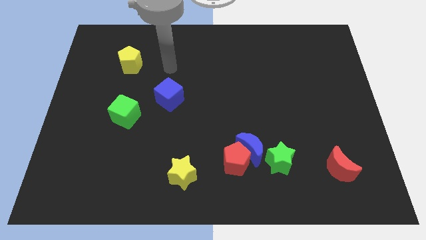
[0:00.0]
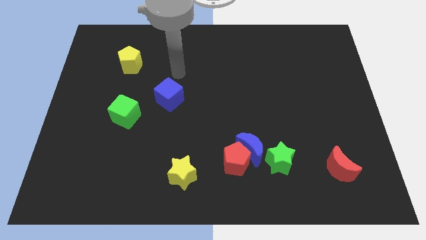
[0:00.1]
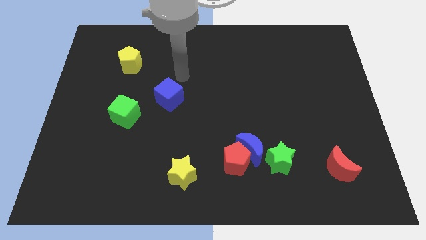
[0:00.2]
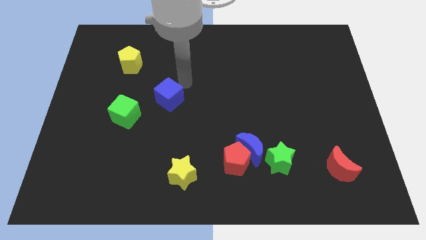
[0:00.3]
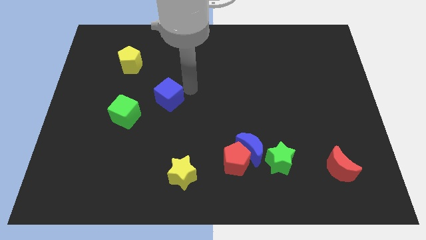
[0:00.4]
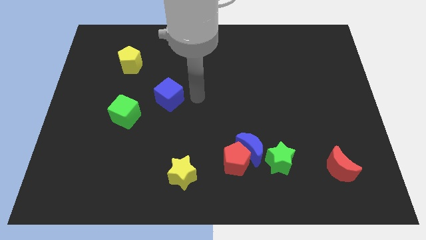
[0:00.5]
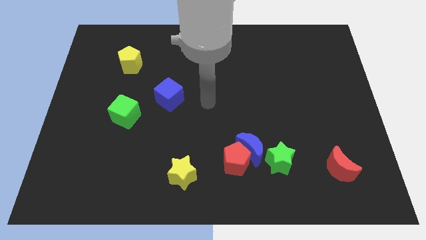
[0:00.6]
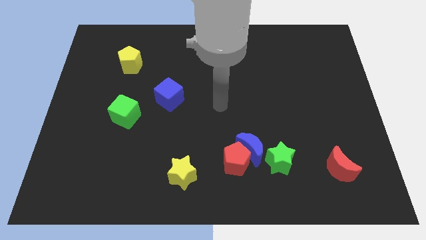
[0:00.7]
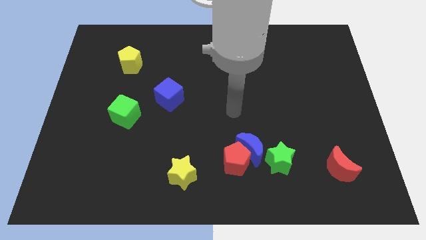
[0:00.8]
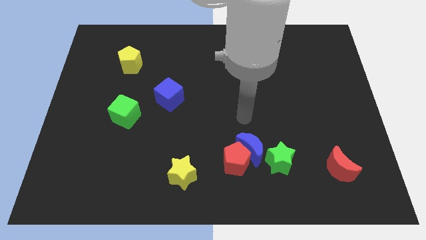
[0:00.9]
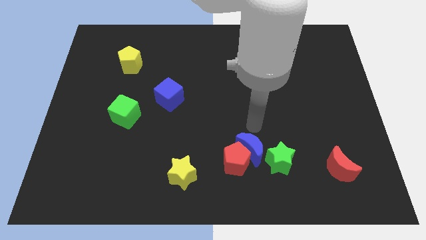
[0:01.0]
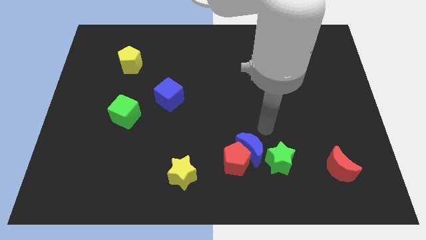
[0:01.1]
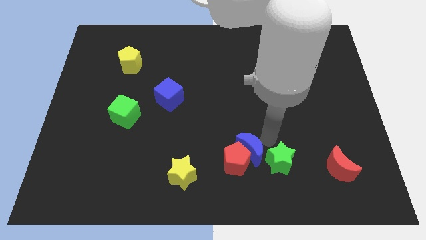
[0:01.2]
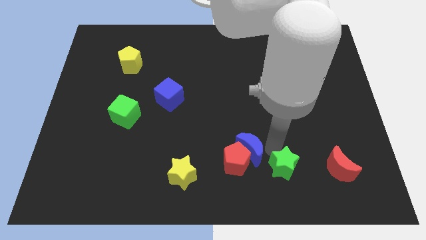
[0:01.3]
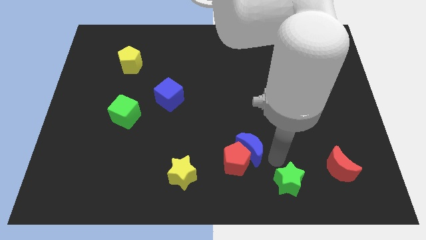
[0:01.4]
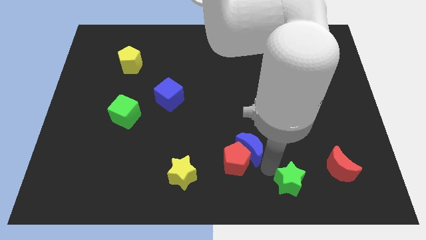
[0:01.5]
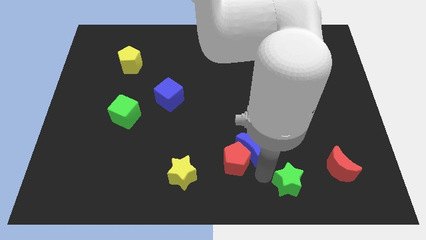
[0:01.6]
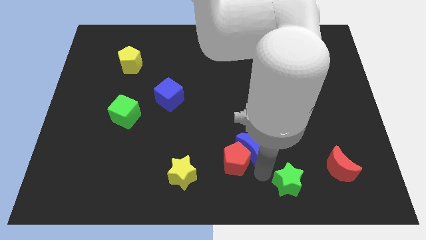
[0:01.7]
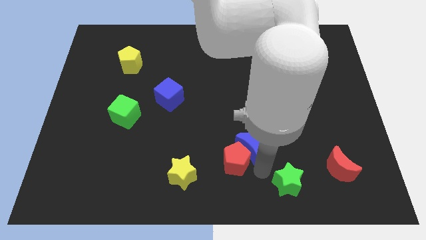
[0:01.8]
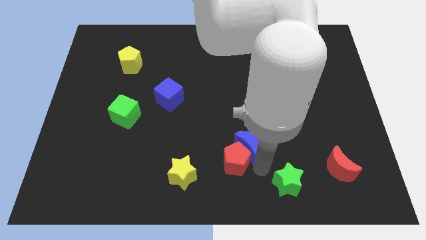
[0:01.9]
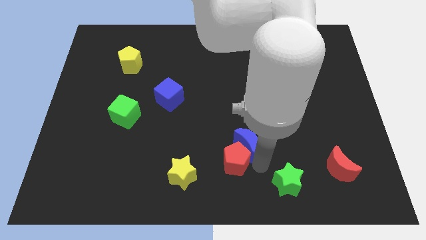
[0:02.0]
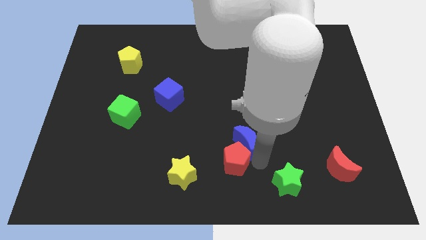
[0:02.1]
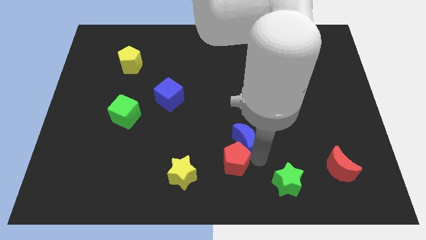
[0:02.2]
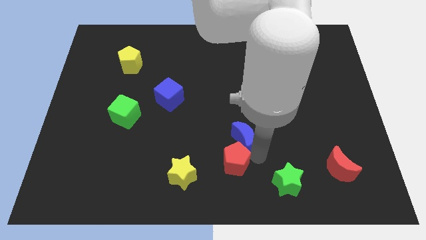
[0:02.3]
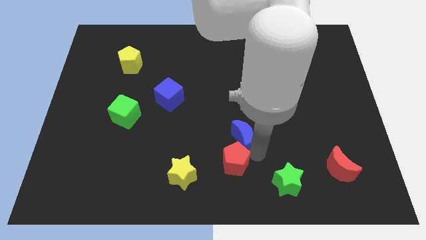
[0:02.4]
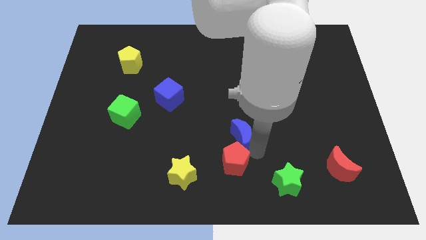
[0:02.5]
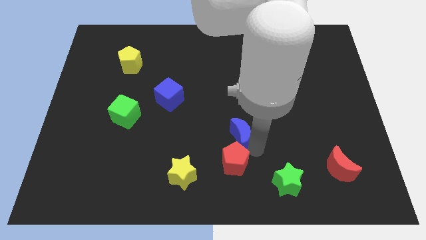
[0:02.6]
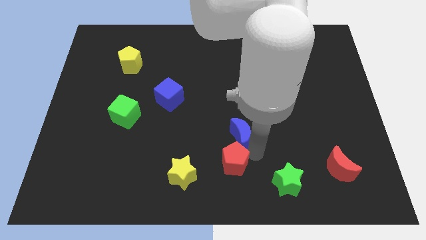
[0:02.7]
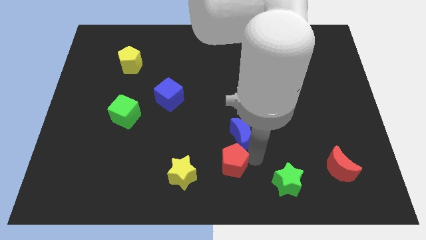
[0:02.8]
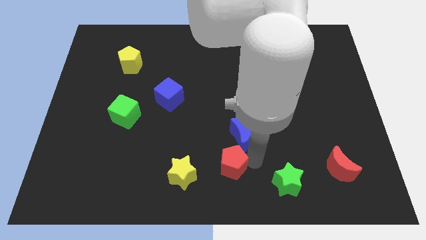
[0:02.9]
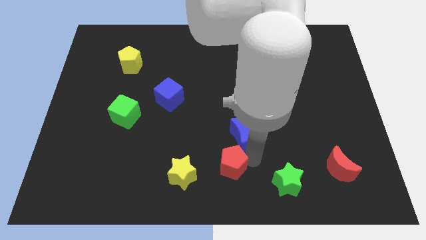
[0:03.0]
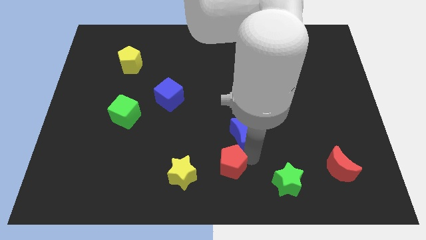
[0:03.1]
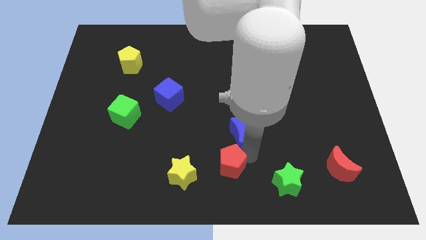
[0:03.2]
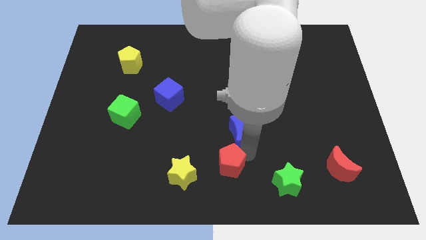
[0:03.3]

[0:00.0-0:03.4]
separate the blue moon from the red pentagon and green star

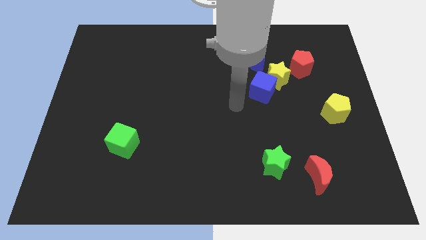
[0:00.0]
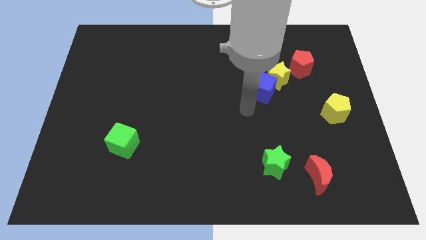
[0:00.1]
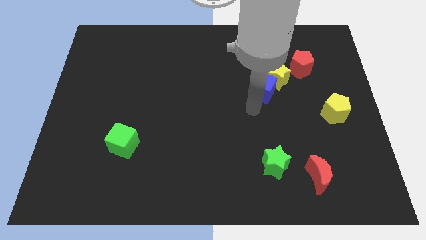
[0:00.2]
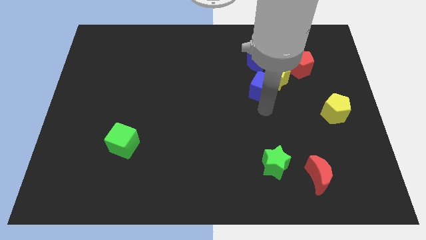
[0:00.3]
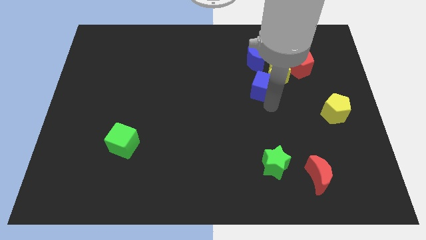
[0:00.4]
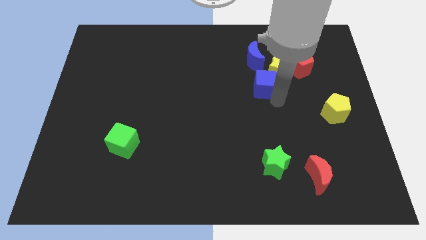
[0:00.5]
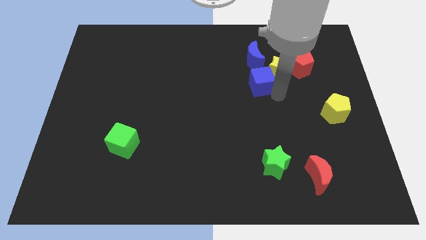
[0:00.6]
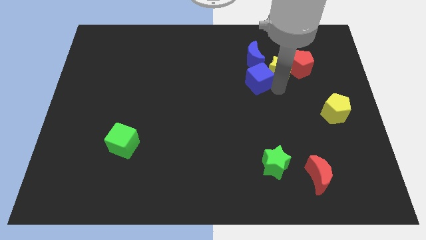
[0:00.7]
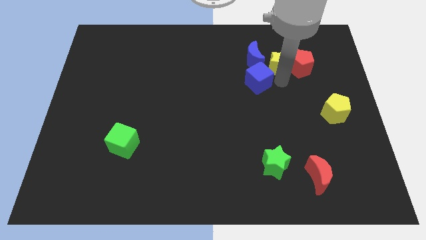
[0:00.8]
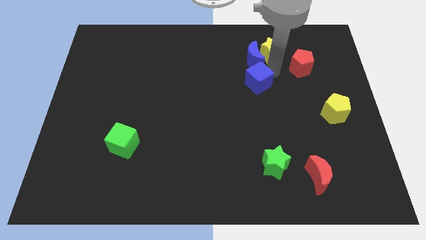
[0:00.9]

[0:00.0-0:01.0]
pull the blue cube apart from the yellow star

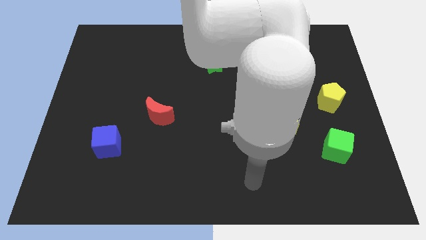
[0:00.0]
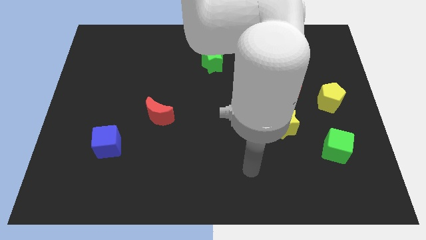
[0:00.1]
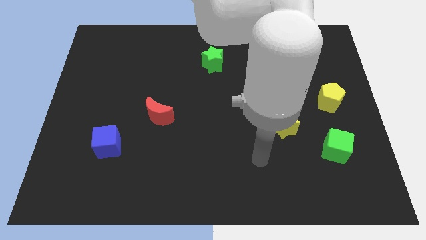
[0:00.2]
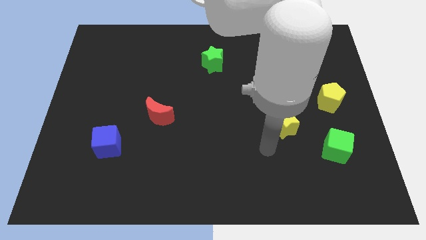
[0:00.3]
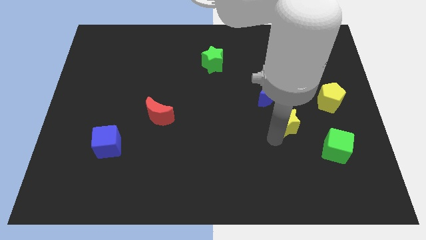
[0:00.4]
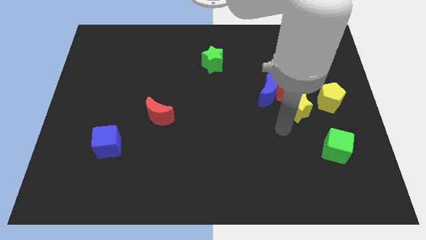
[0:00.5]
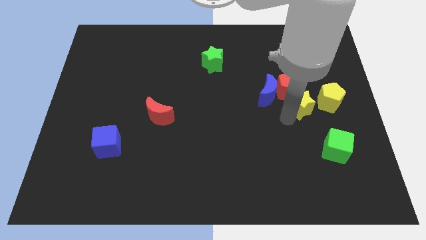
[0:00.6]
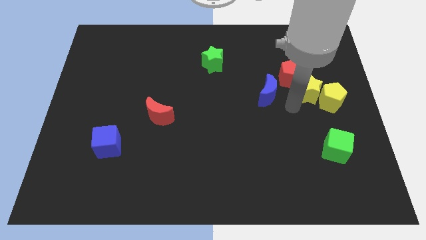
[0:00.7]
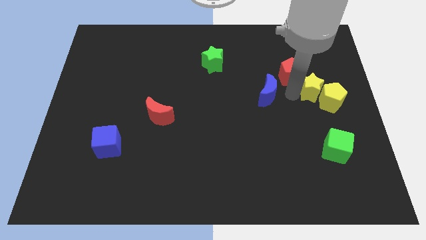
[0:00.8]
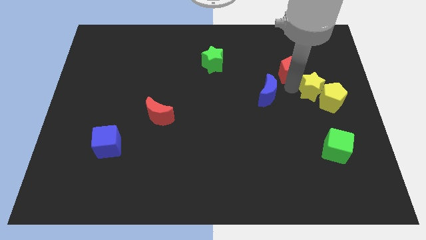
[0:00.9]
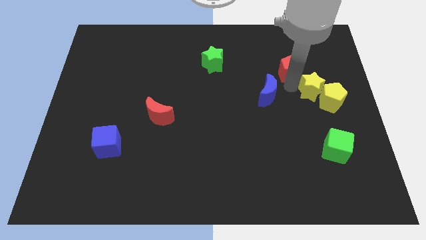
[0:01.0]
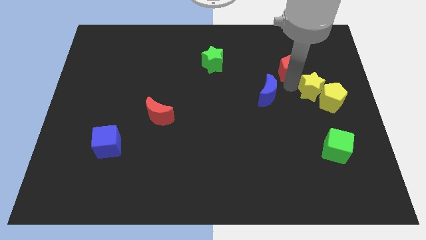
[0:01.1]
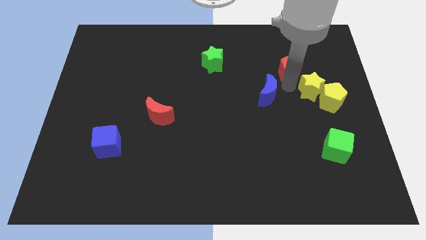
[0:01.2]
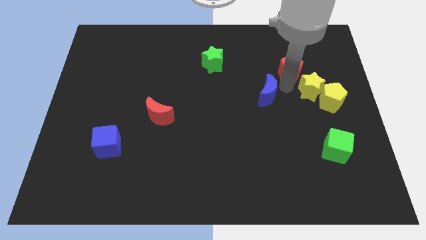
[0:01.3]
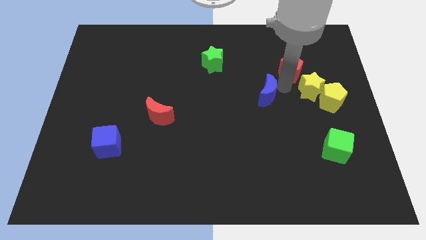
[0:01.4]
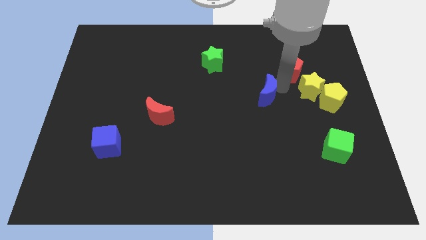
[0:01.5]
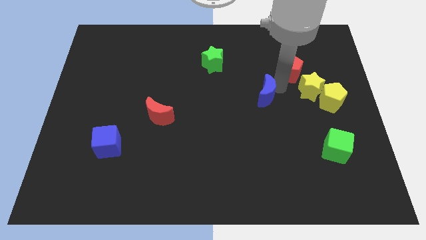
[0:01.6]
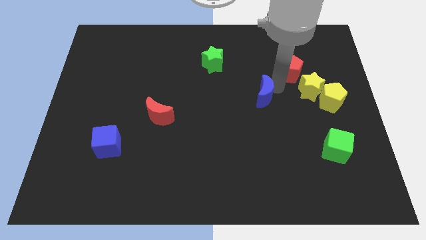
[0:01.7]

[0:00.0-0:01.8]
pull the blue moon apart from the red pentagon and yellow star

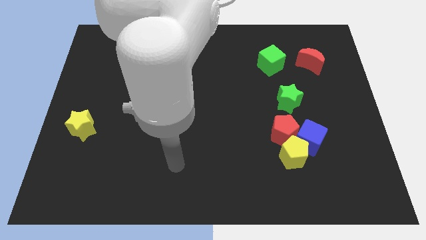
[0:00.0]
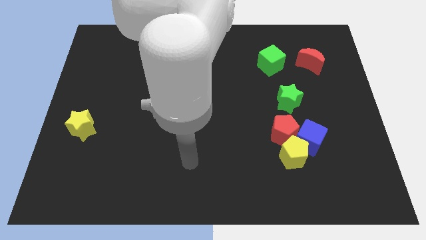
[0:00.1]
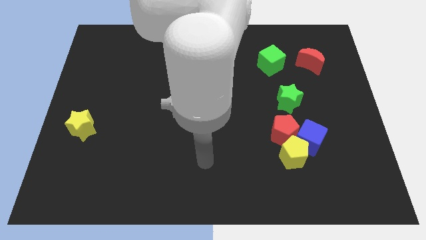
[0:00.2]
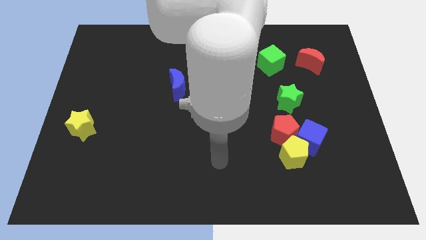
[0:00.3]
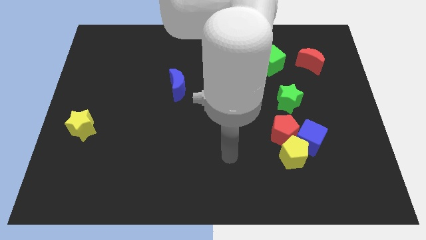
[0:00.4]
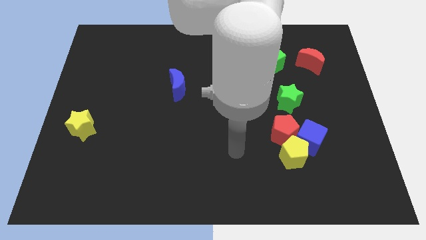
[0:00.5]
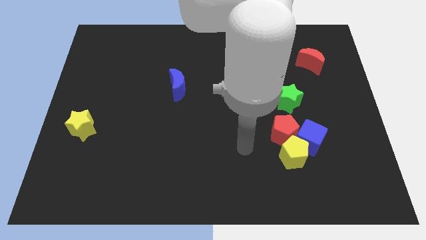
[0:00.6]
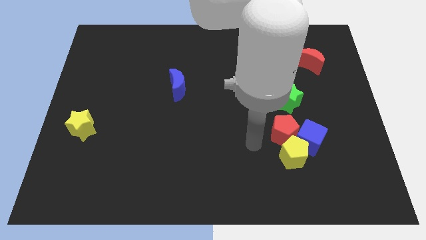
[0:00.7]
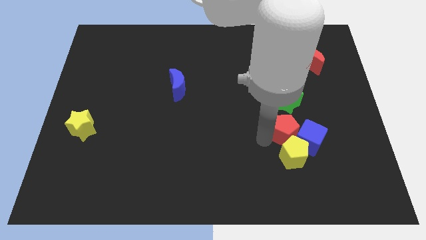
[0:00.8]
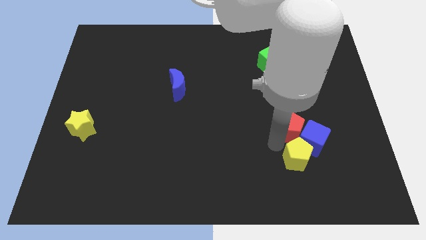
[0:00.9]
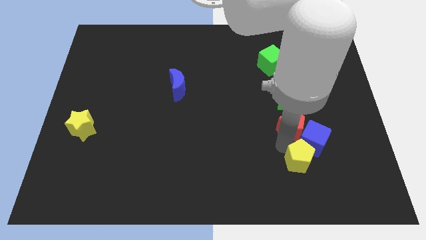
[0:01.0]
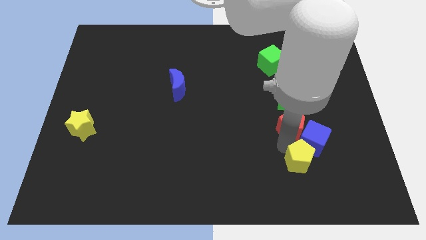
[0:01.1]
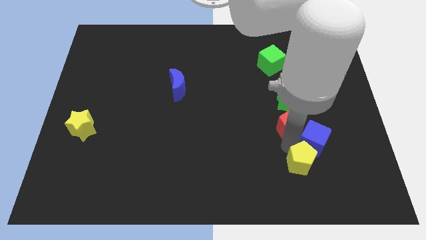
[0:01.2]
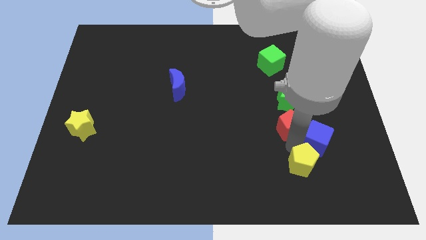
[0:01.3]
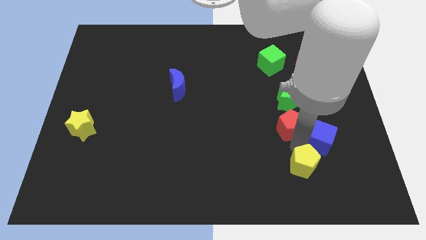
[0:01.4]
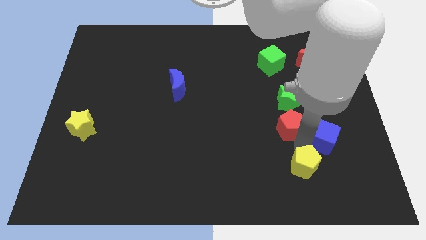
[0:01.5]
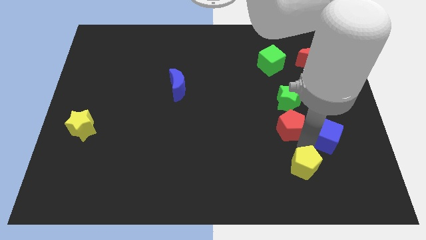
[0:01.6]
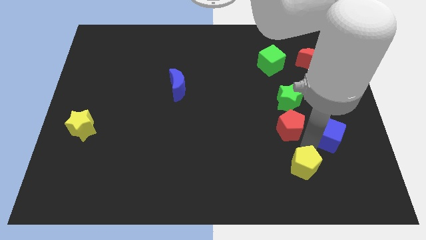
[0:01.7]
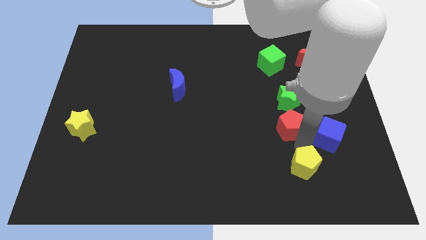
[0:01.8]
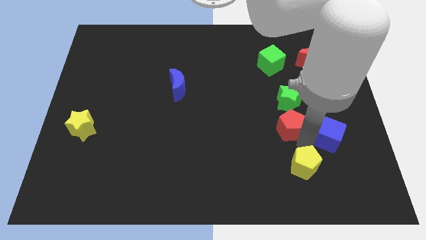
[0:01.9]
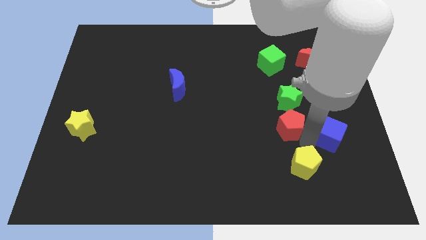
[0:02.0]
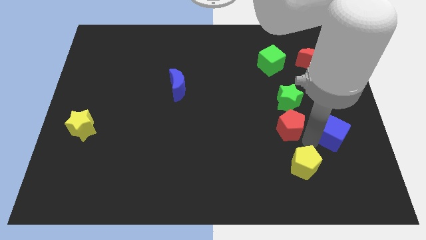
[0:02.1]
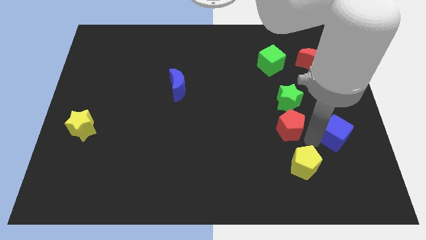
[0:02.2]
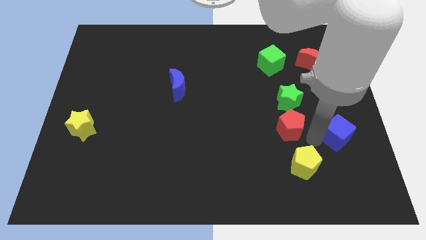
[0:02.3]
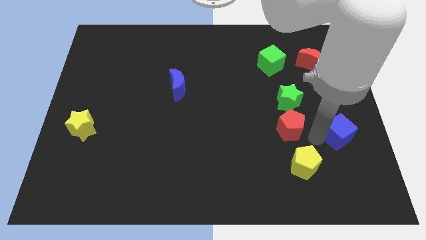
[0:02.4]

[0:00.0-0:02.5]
pull the blue cube apart from the yellow pentagon and red pentagon

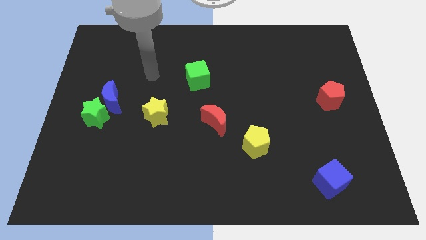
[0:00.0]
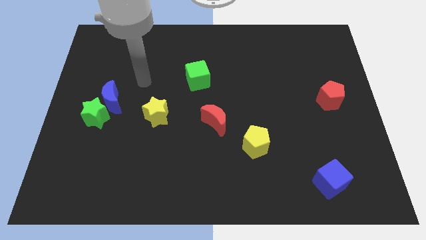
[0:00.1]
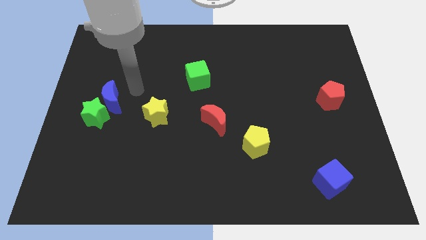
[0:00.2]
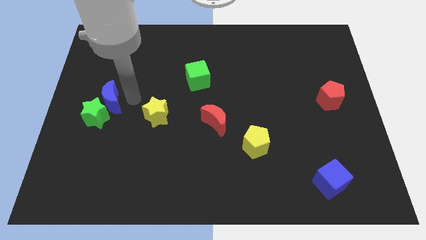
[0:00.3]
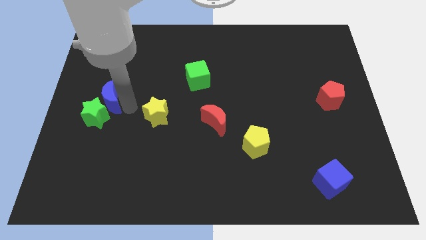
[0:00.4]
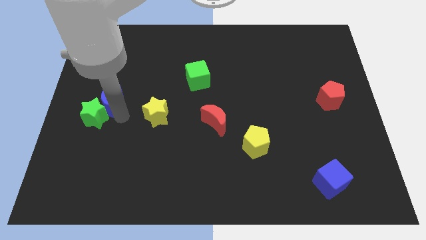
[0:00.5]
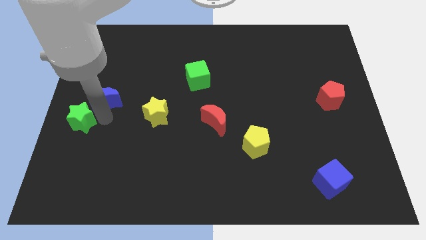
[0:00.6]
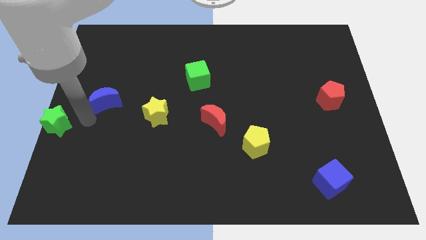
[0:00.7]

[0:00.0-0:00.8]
separate the blue moon from the green star
